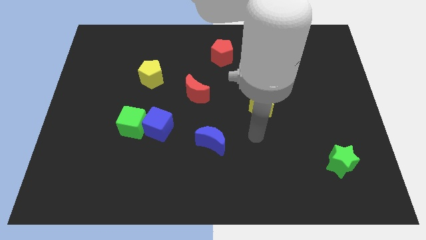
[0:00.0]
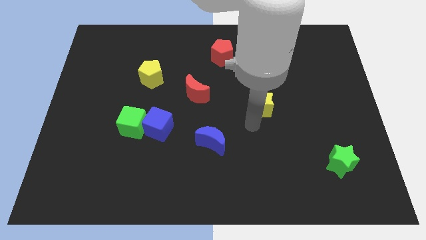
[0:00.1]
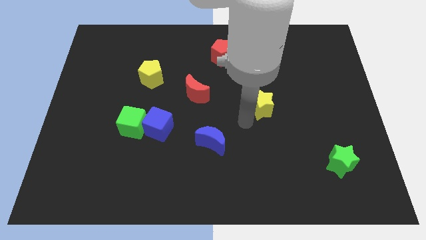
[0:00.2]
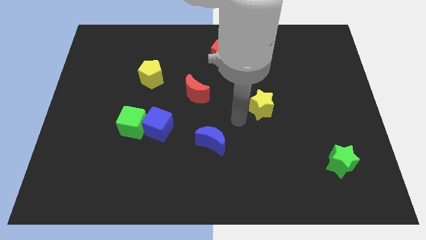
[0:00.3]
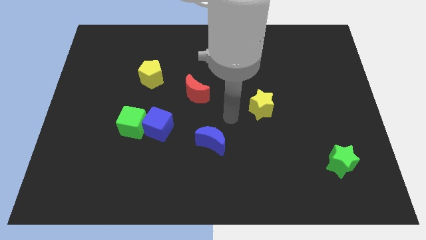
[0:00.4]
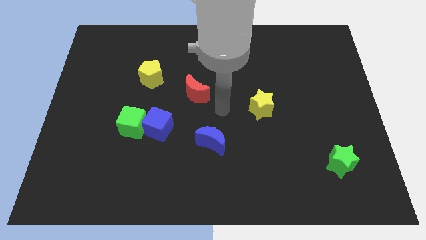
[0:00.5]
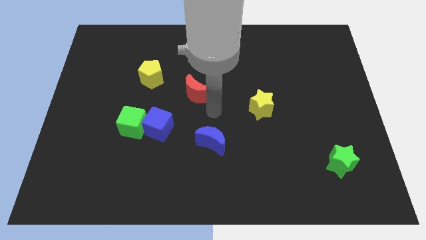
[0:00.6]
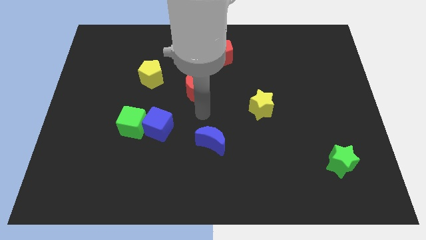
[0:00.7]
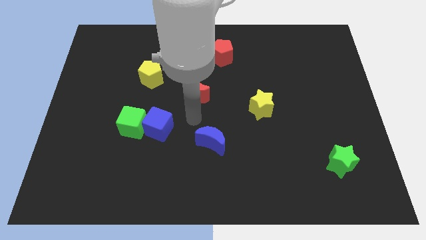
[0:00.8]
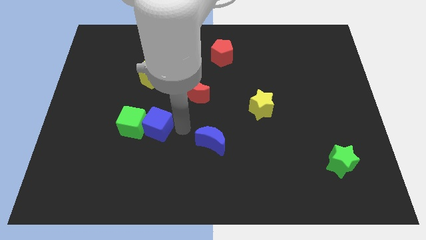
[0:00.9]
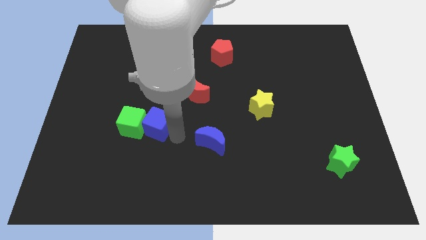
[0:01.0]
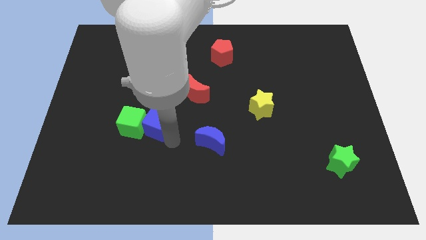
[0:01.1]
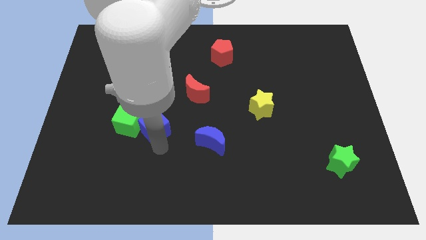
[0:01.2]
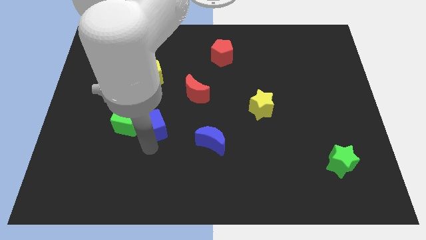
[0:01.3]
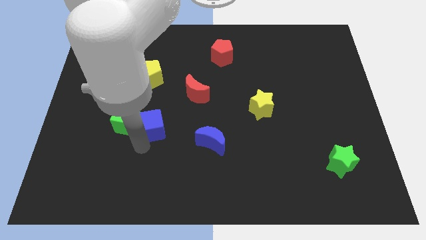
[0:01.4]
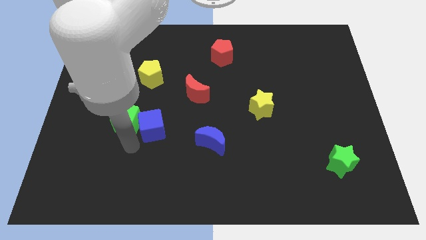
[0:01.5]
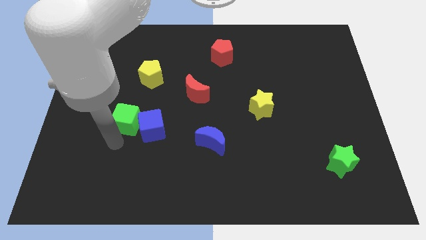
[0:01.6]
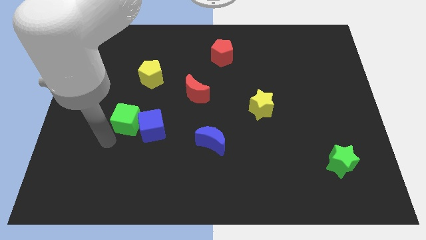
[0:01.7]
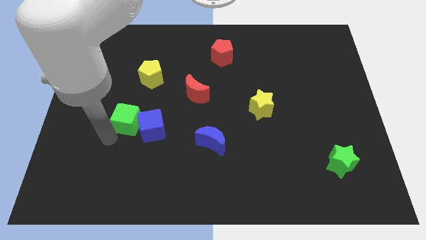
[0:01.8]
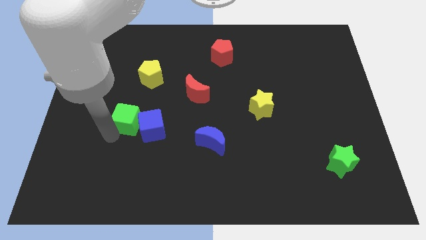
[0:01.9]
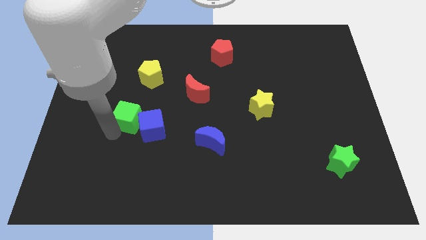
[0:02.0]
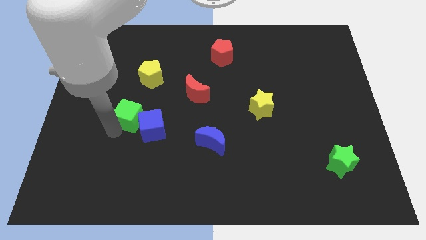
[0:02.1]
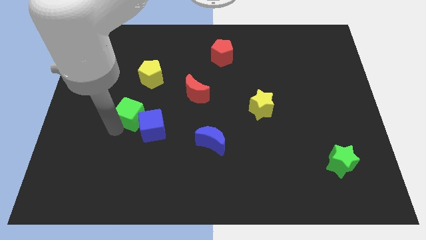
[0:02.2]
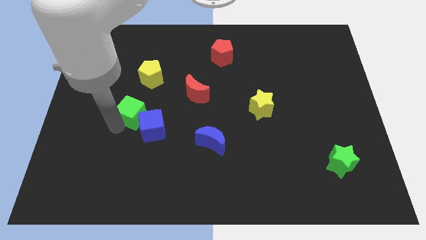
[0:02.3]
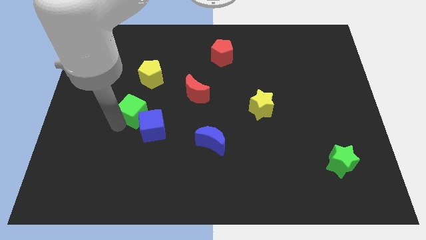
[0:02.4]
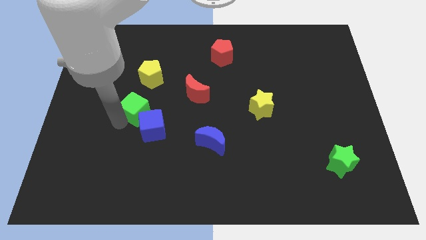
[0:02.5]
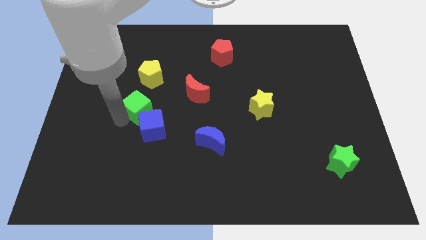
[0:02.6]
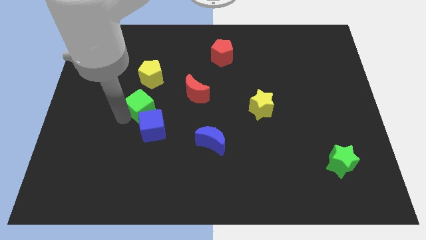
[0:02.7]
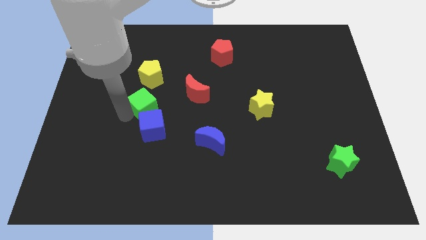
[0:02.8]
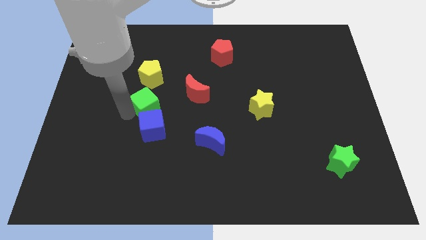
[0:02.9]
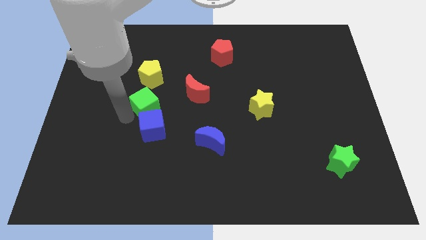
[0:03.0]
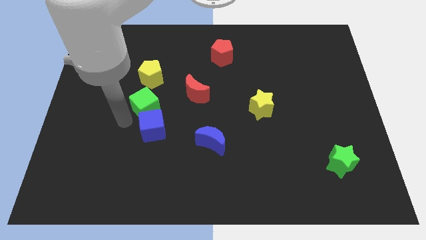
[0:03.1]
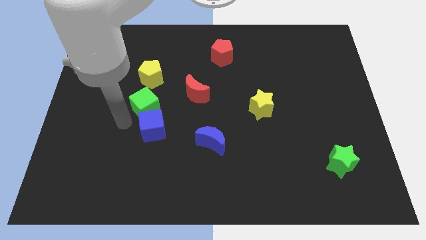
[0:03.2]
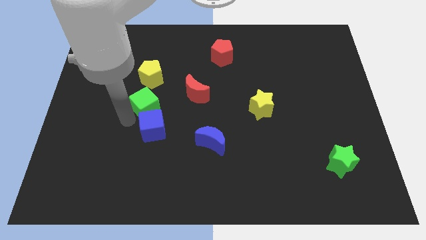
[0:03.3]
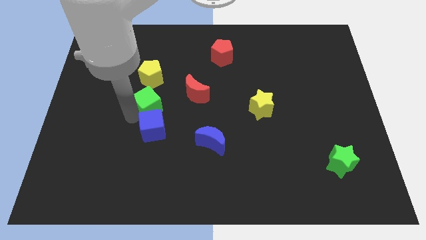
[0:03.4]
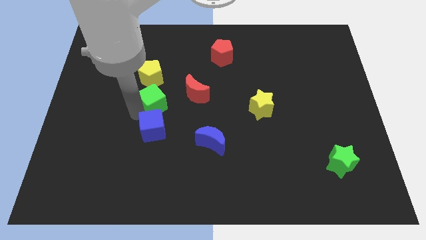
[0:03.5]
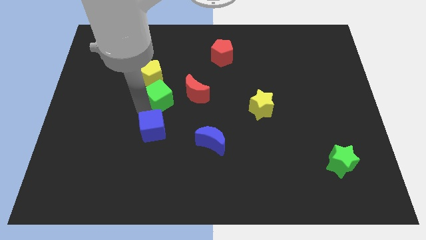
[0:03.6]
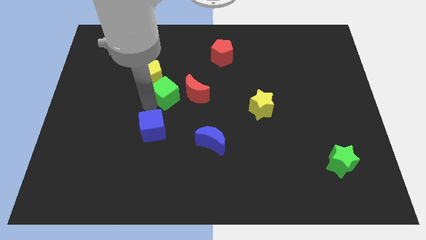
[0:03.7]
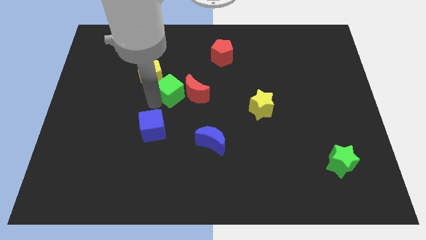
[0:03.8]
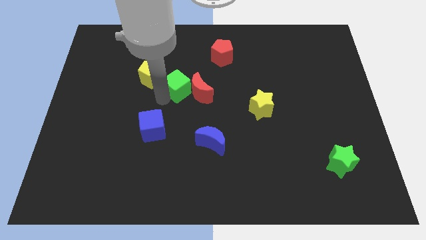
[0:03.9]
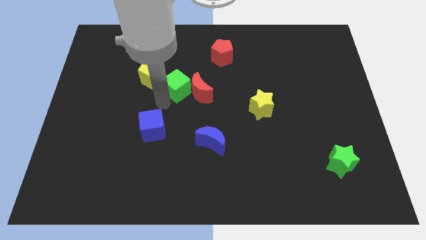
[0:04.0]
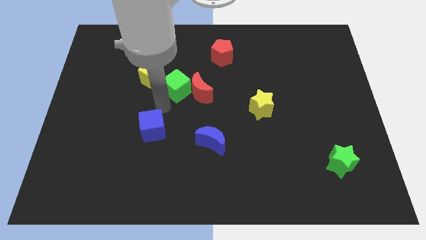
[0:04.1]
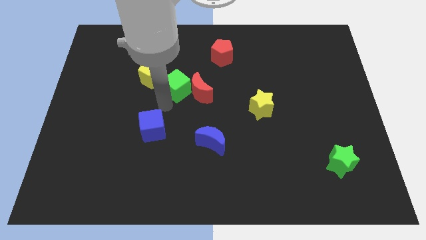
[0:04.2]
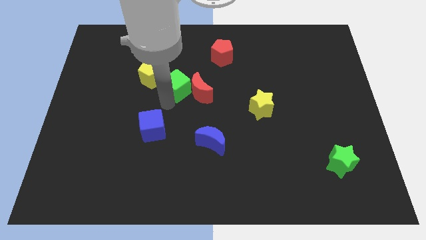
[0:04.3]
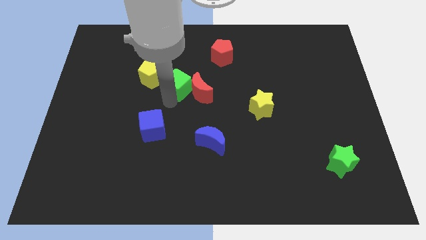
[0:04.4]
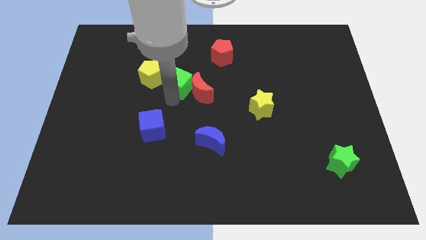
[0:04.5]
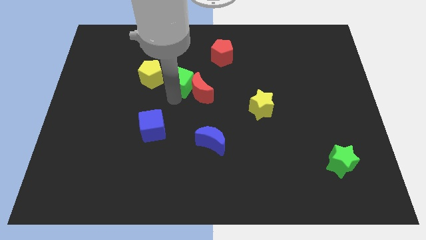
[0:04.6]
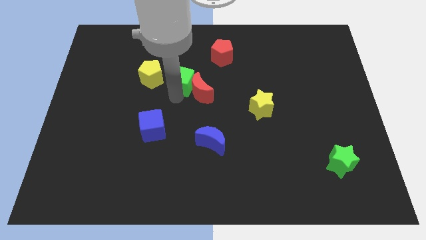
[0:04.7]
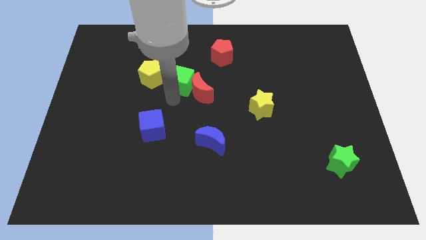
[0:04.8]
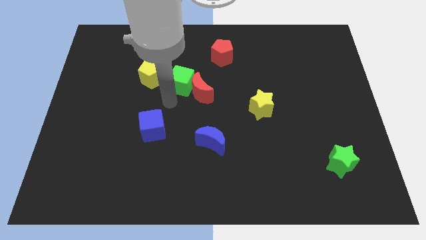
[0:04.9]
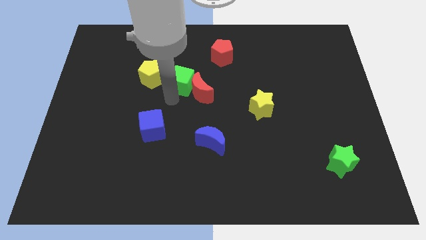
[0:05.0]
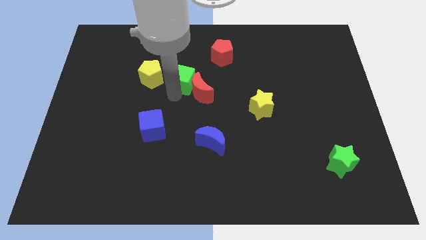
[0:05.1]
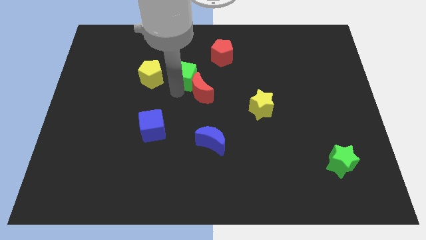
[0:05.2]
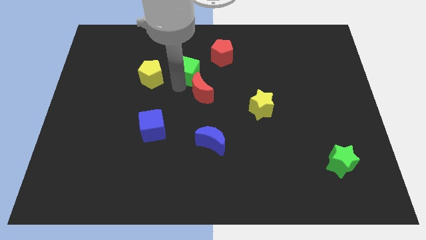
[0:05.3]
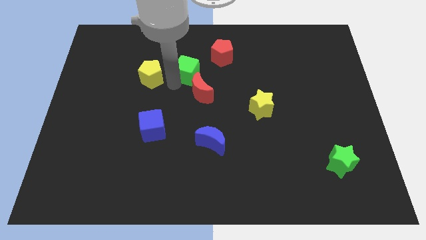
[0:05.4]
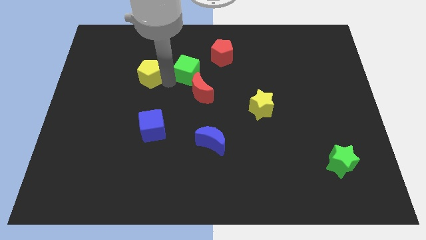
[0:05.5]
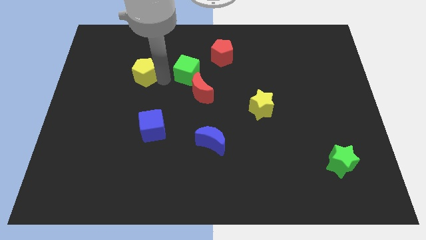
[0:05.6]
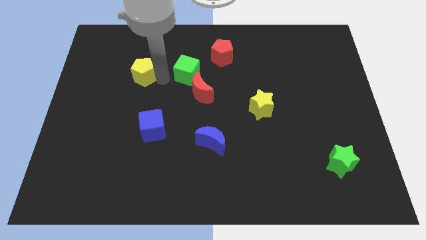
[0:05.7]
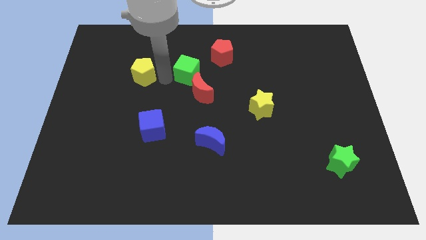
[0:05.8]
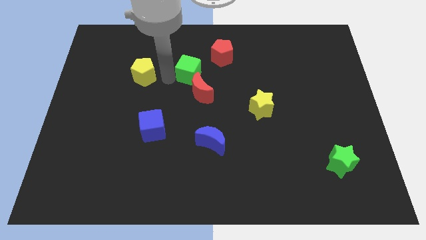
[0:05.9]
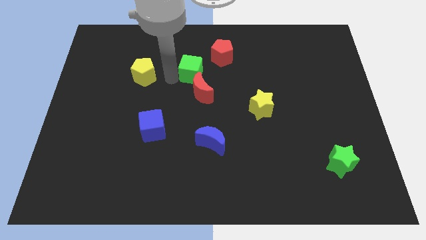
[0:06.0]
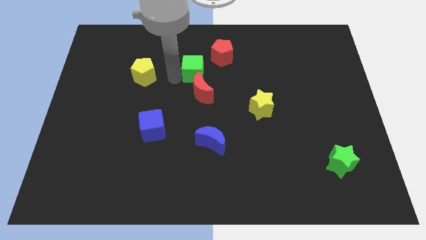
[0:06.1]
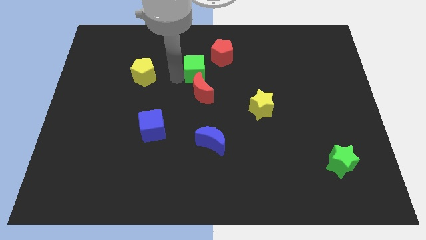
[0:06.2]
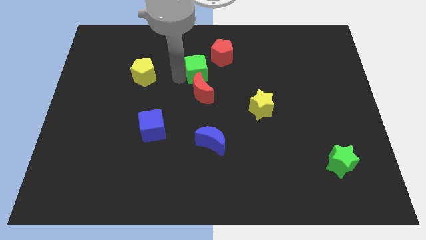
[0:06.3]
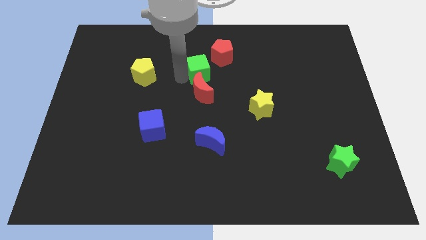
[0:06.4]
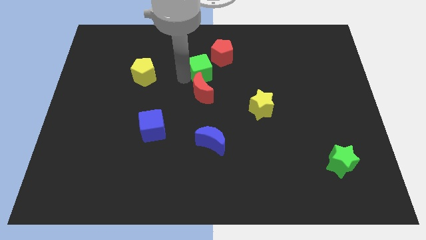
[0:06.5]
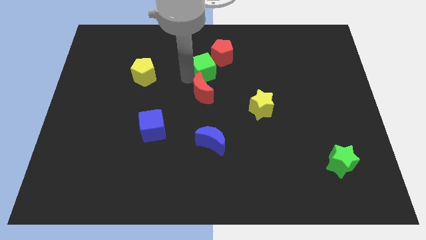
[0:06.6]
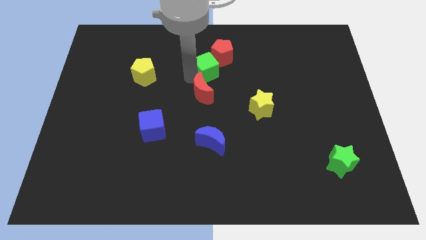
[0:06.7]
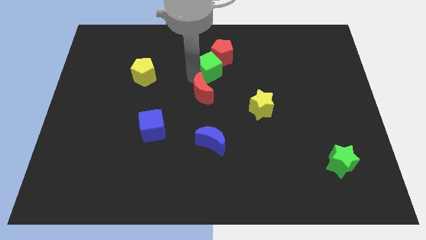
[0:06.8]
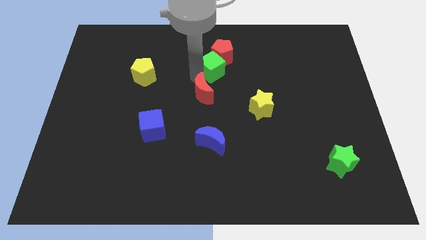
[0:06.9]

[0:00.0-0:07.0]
move the green cube next to the red pentagon

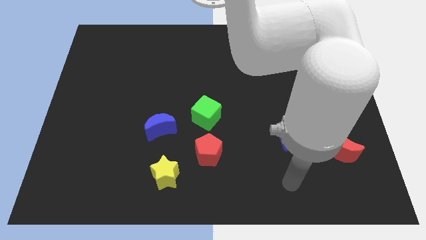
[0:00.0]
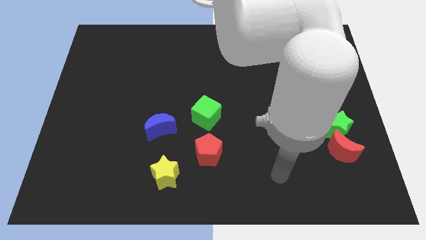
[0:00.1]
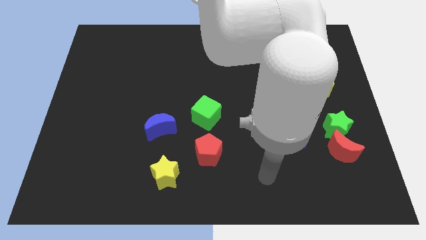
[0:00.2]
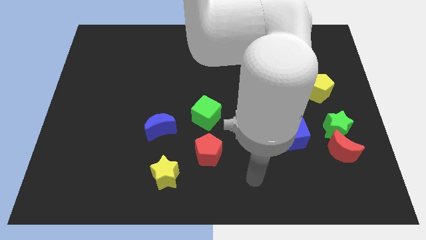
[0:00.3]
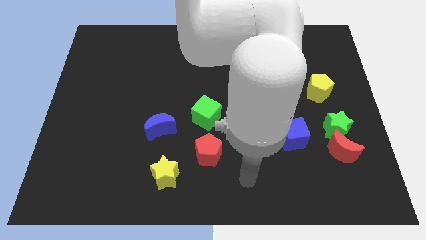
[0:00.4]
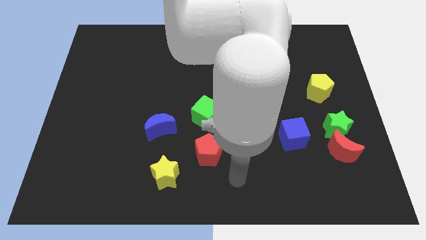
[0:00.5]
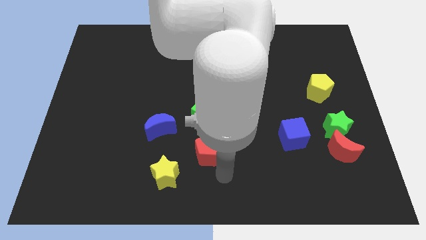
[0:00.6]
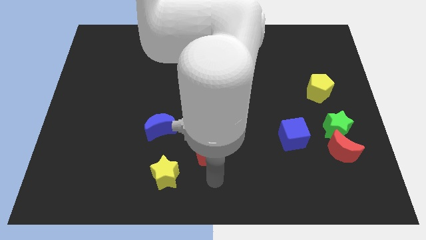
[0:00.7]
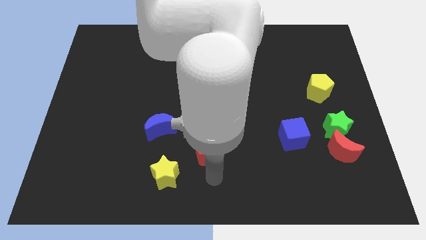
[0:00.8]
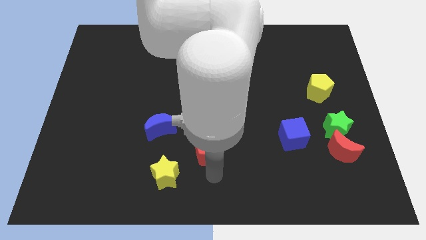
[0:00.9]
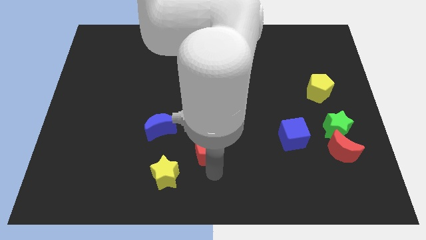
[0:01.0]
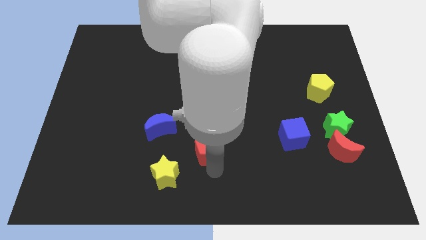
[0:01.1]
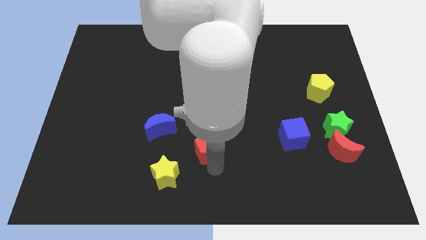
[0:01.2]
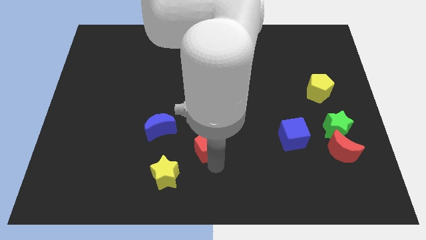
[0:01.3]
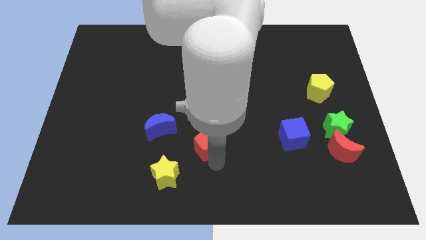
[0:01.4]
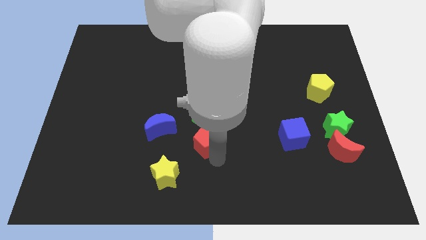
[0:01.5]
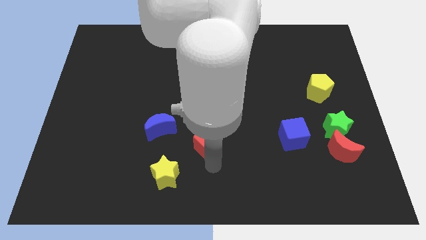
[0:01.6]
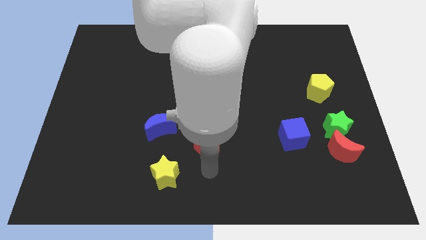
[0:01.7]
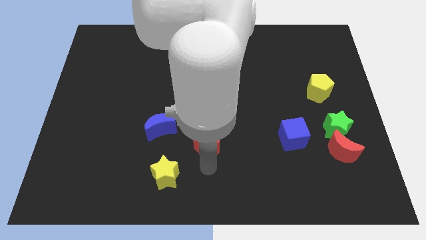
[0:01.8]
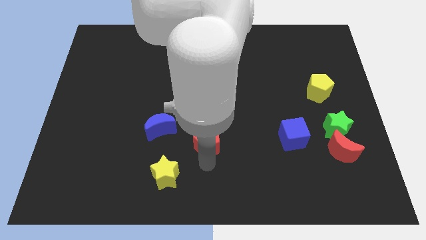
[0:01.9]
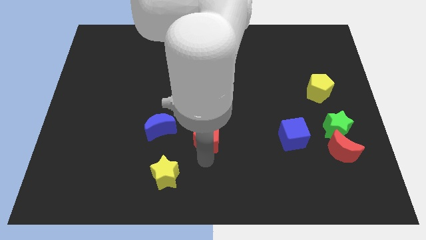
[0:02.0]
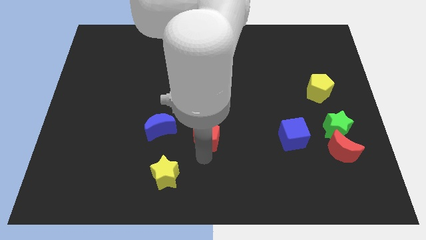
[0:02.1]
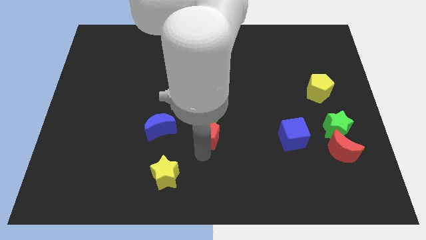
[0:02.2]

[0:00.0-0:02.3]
push the red pentagon close to the green cube
